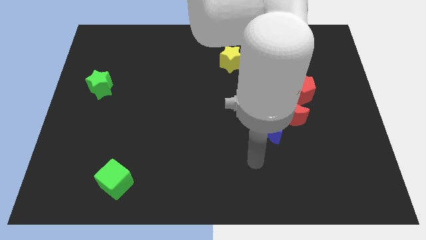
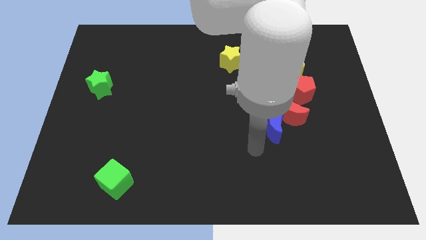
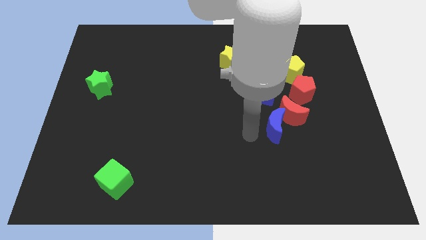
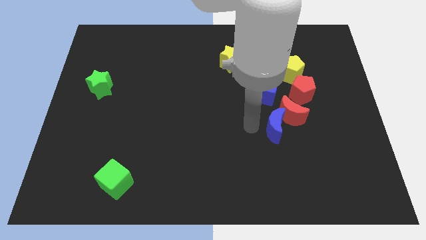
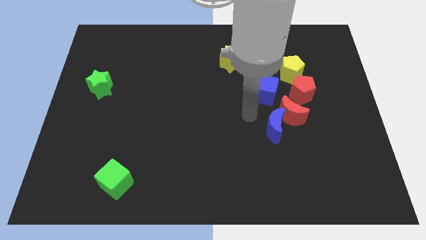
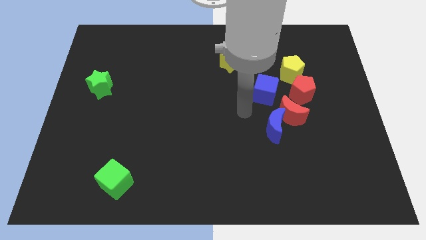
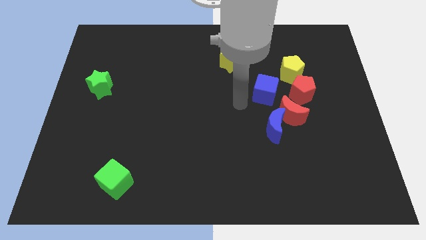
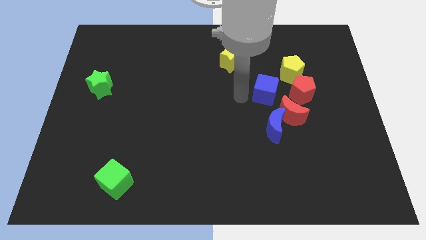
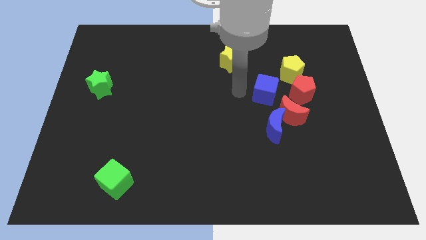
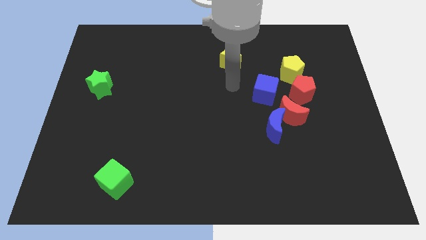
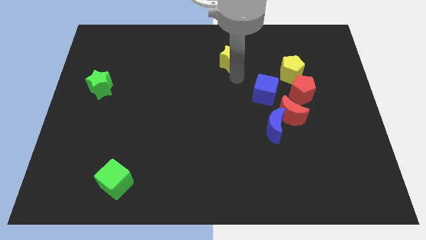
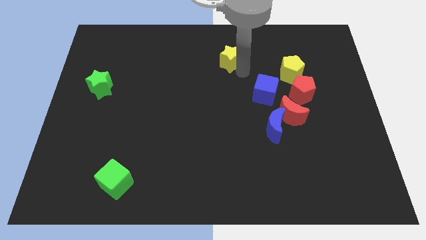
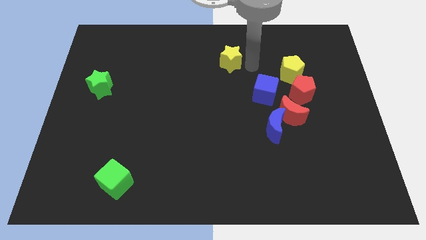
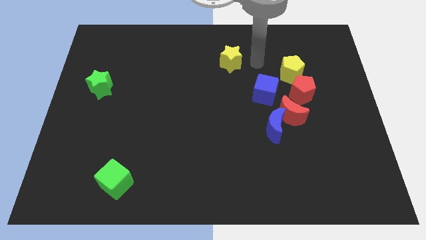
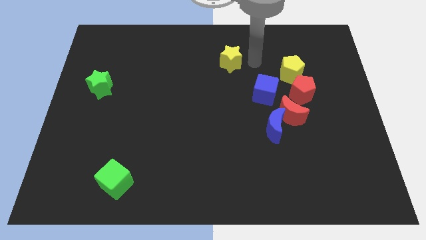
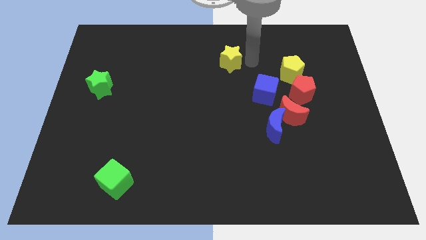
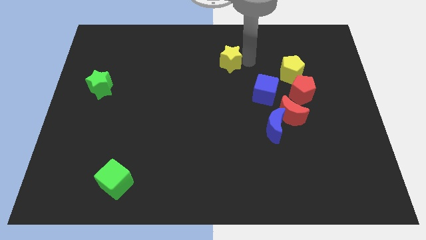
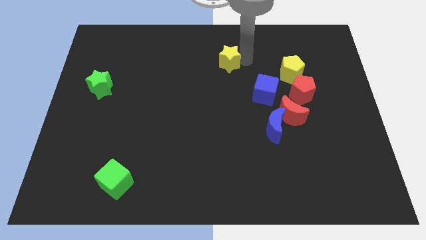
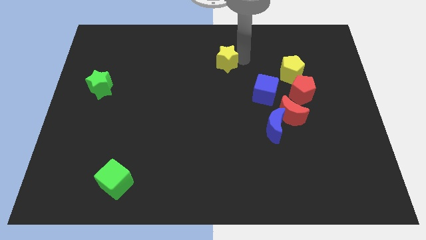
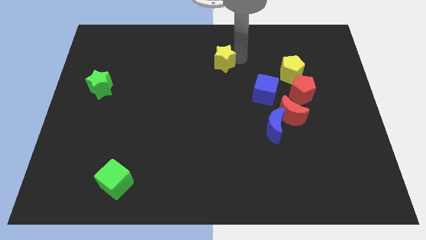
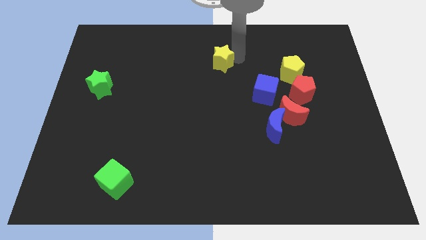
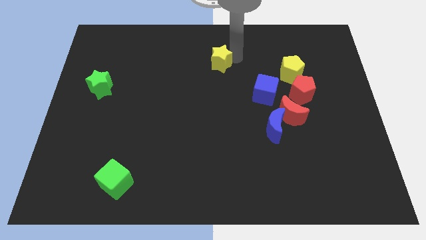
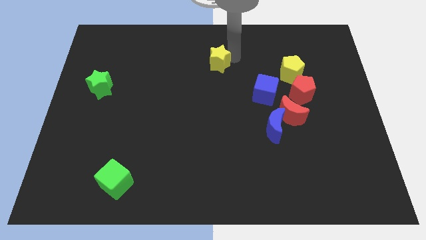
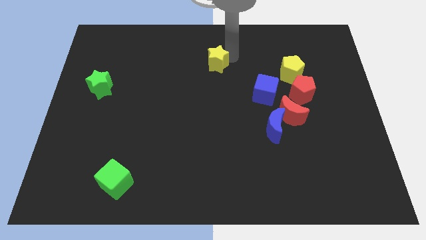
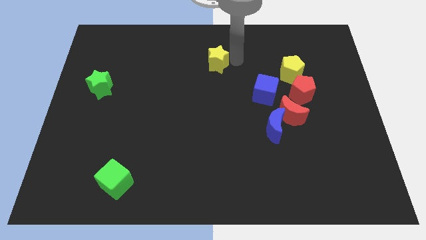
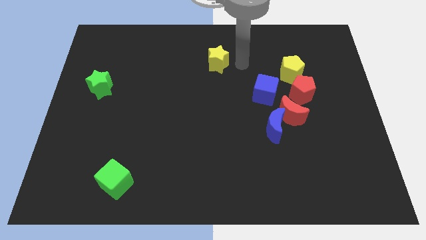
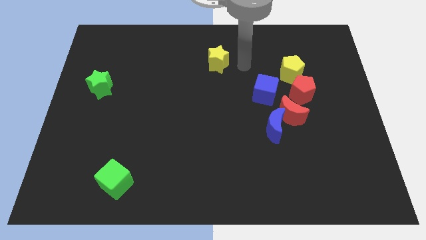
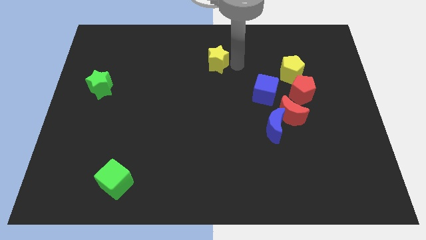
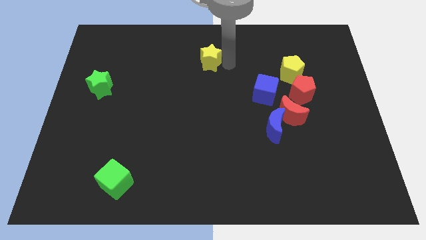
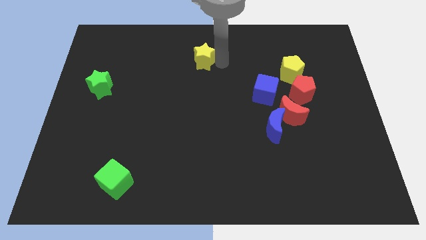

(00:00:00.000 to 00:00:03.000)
slightly move the yellow star to the left

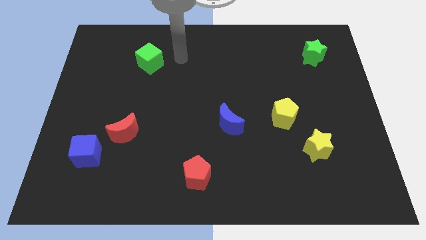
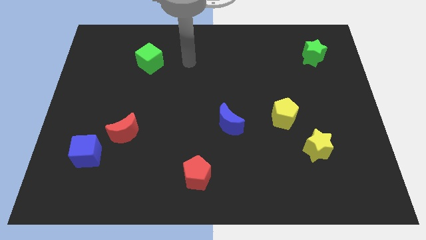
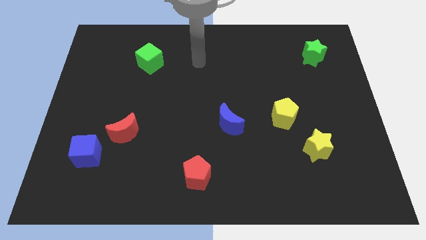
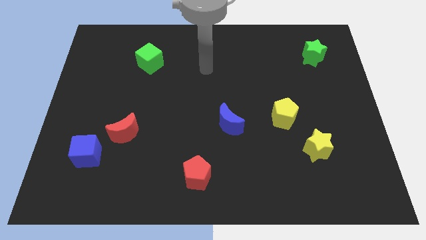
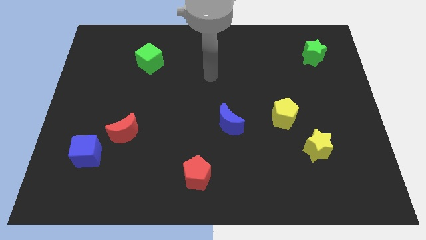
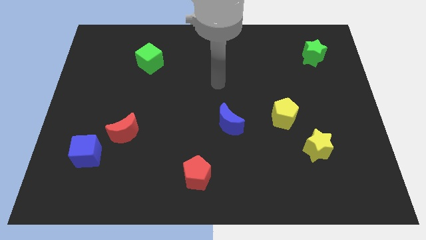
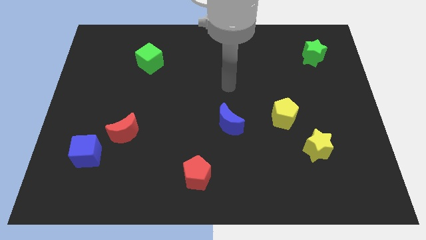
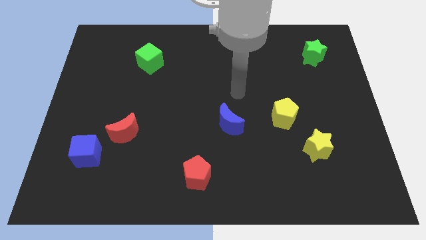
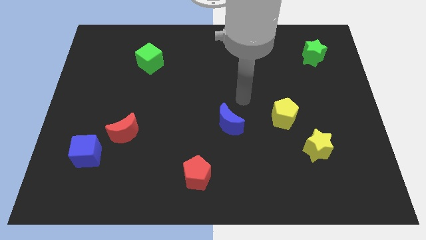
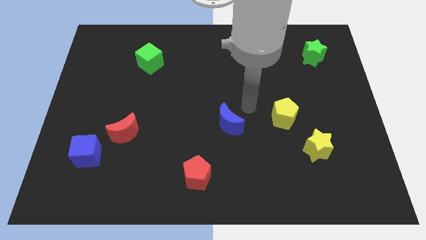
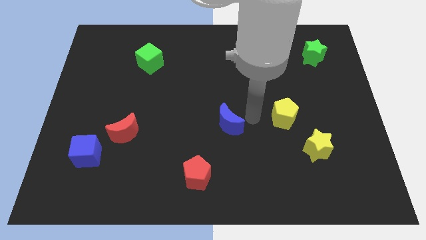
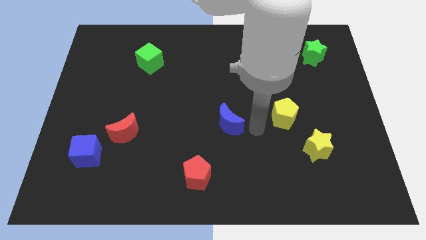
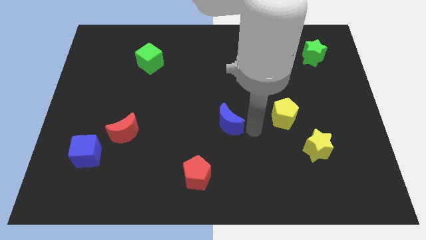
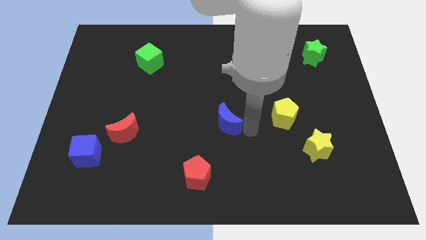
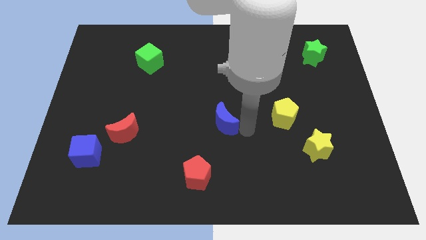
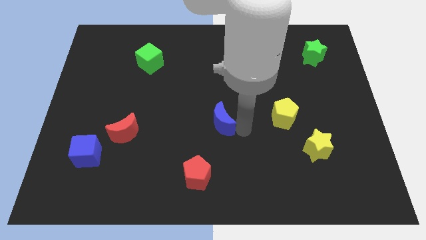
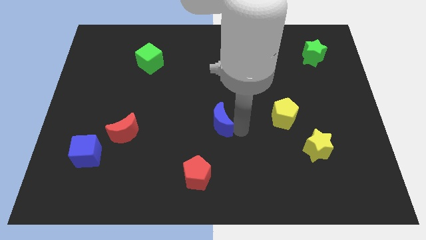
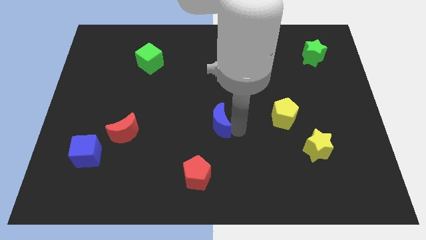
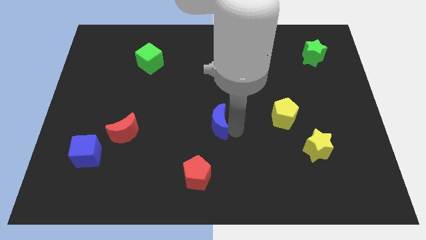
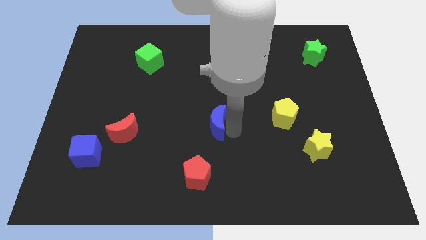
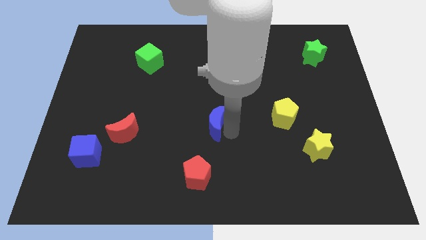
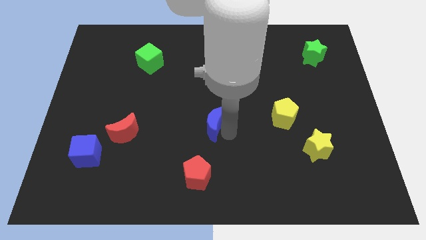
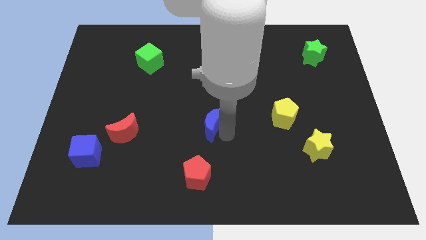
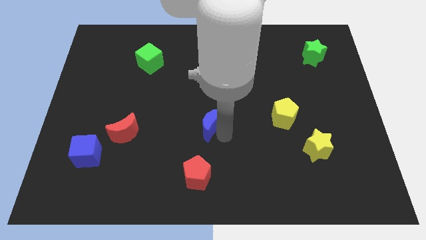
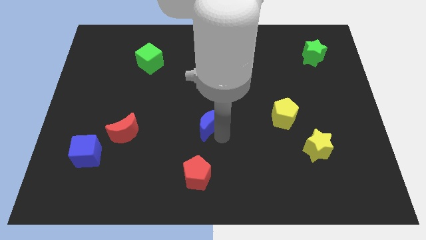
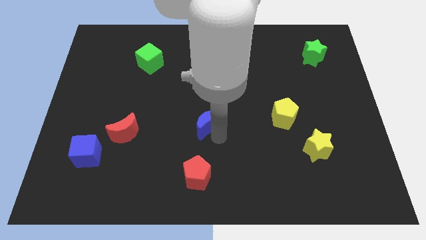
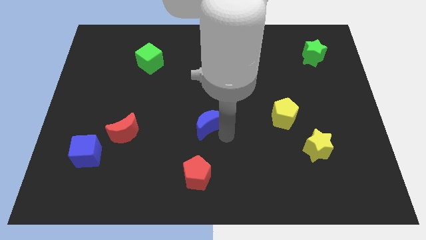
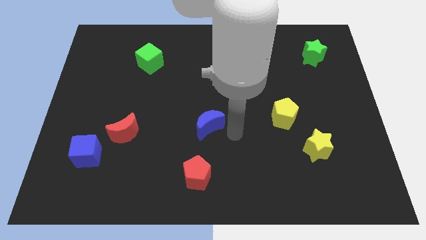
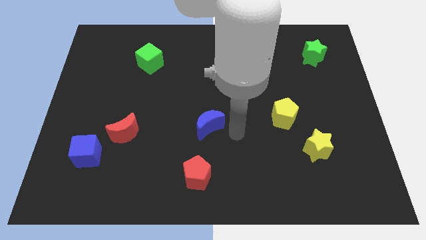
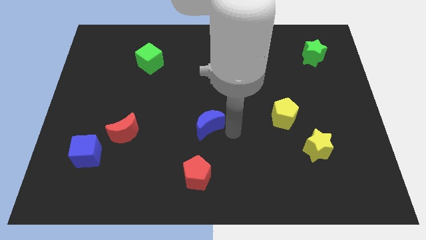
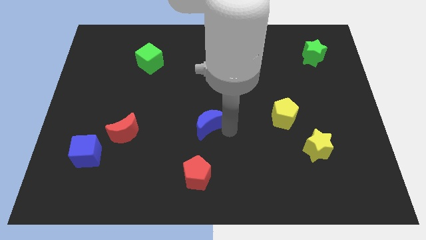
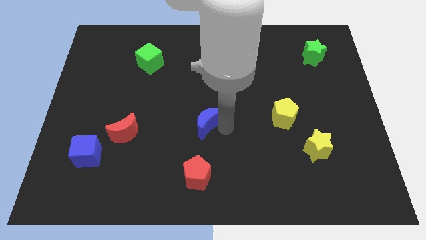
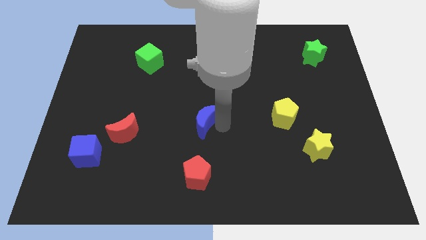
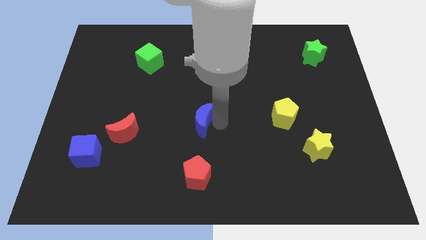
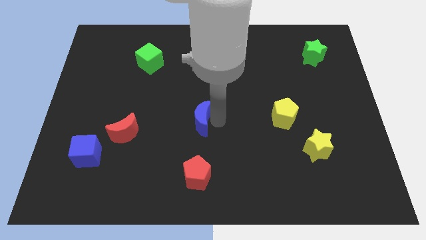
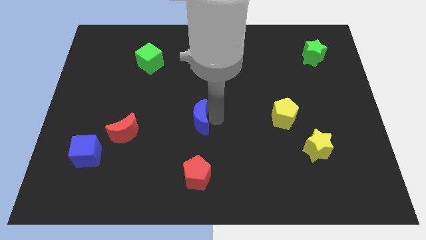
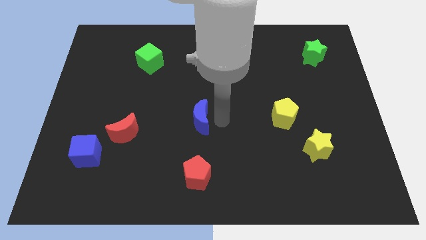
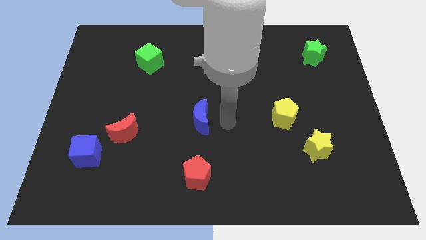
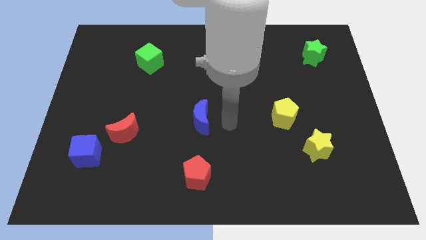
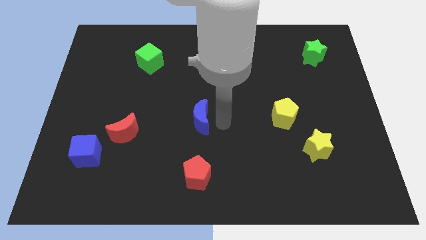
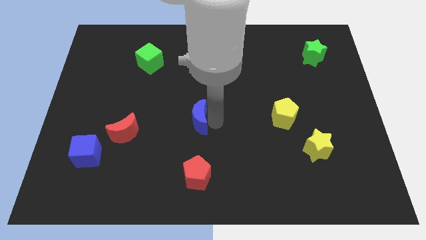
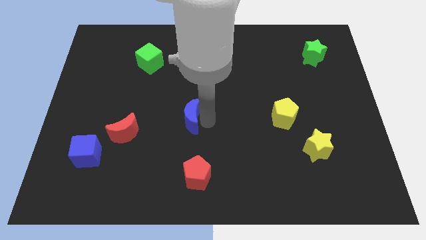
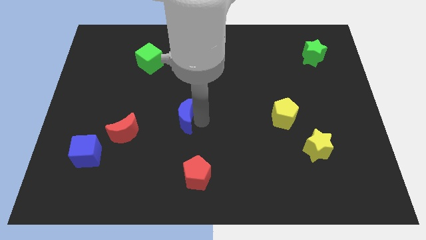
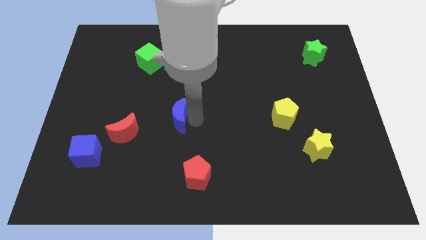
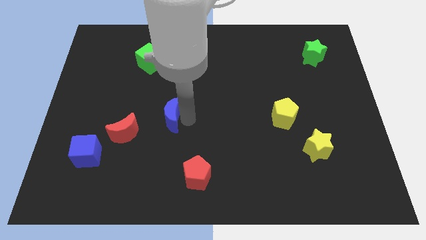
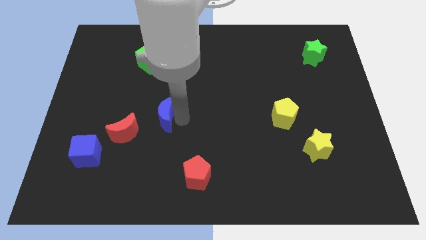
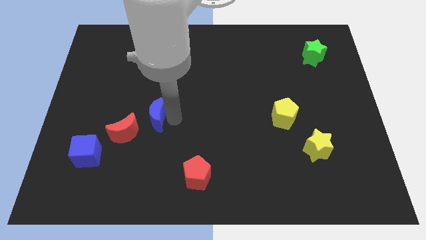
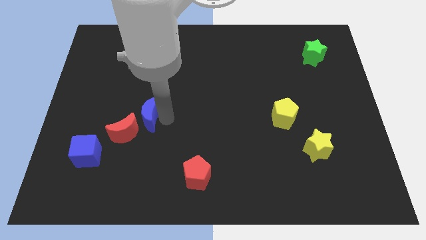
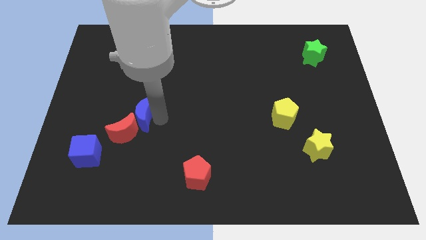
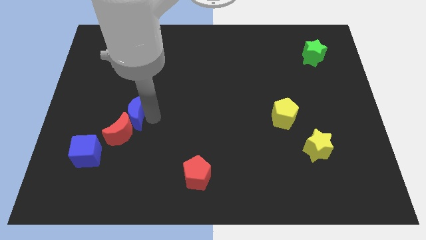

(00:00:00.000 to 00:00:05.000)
push the blue moon left
